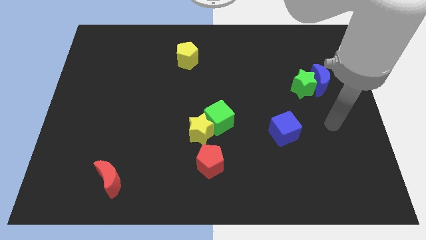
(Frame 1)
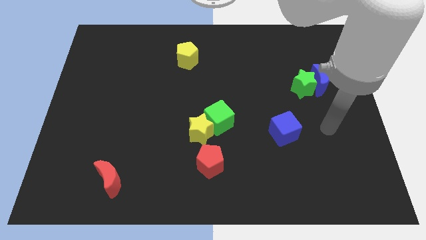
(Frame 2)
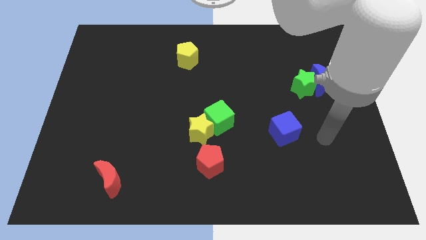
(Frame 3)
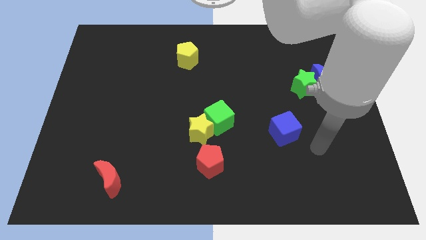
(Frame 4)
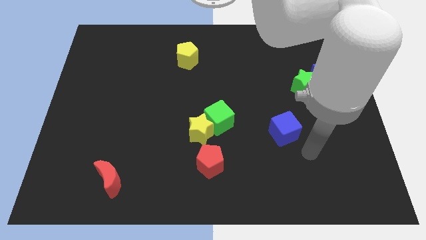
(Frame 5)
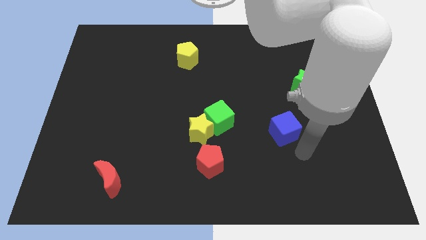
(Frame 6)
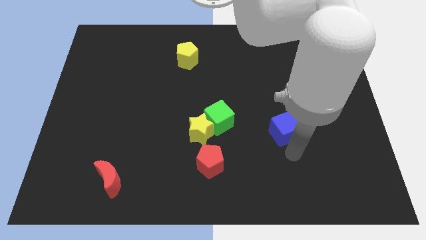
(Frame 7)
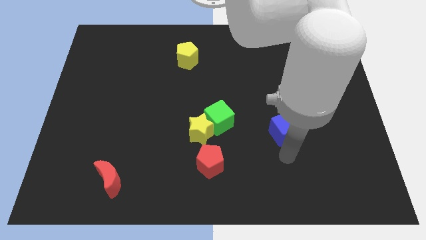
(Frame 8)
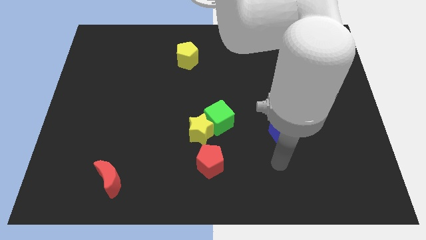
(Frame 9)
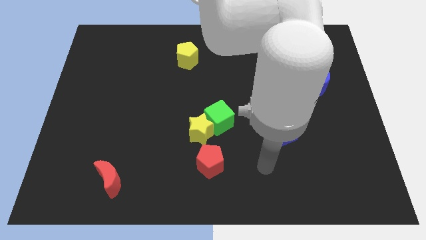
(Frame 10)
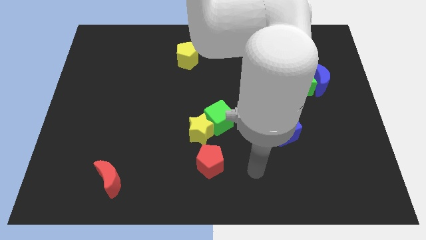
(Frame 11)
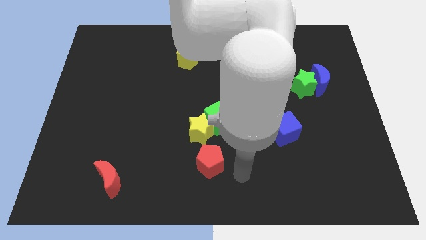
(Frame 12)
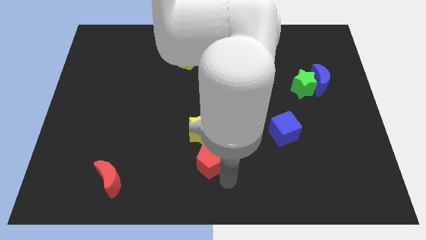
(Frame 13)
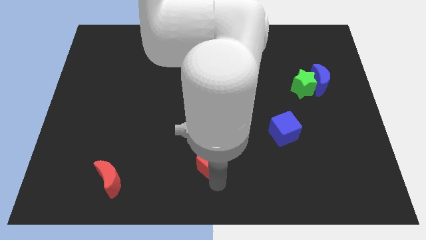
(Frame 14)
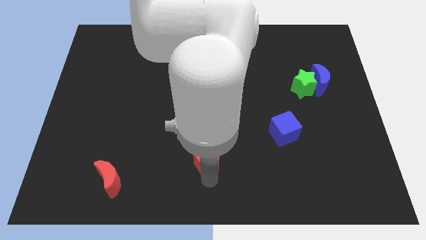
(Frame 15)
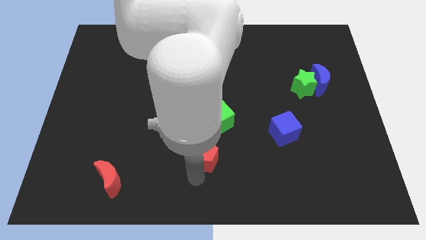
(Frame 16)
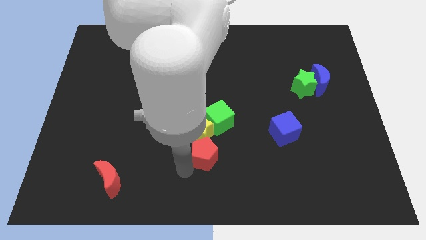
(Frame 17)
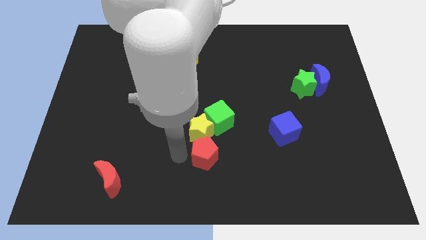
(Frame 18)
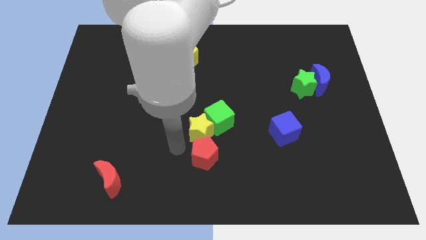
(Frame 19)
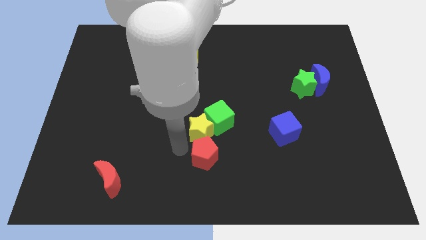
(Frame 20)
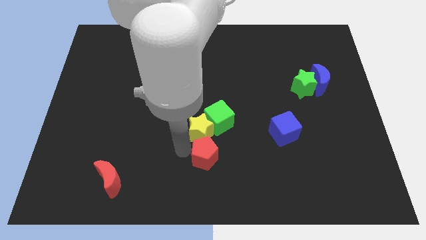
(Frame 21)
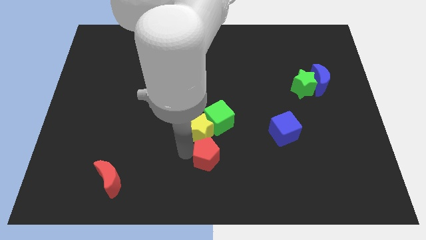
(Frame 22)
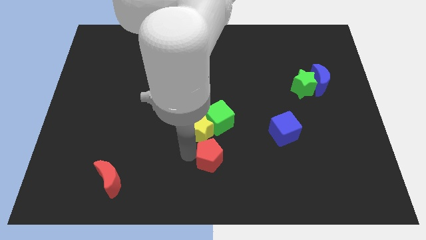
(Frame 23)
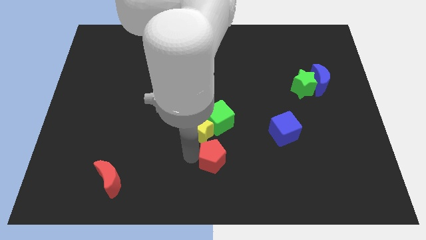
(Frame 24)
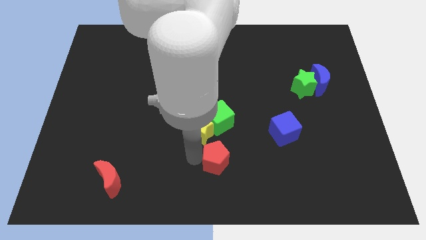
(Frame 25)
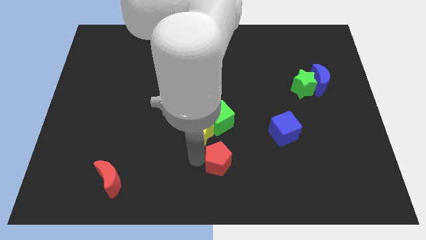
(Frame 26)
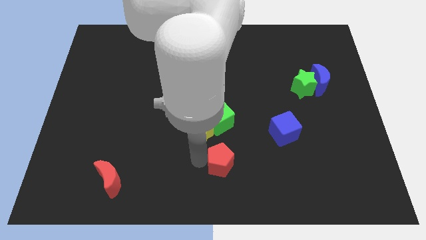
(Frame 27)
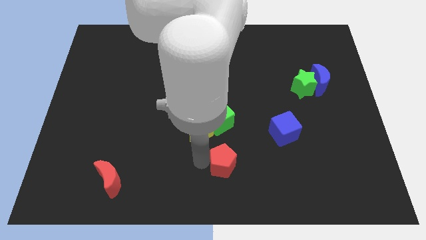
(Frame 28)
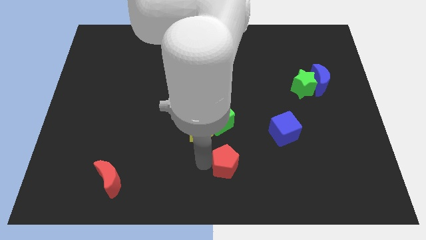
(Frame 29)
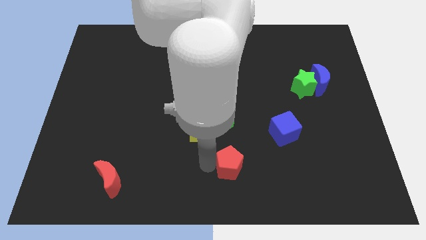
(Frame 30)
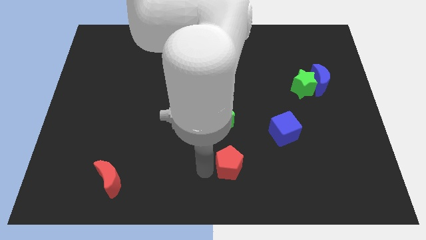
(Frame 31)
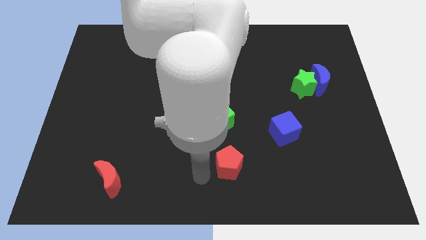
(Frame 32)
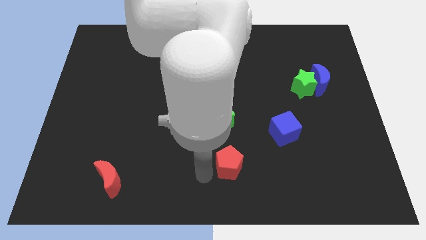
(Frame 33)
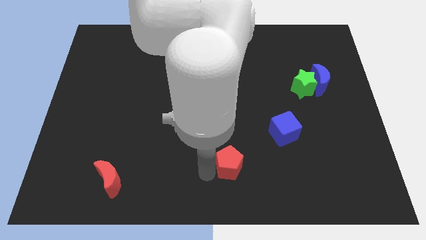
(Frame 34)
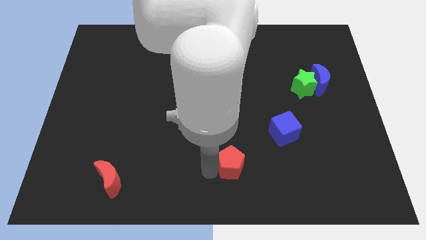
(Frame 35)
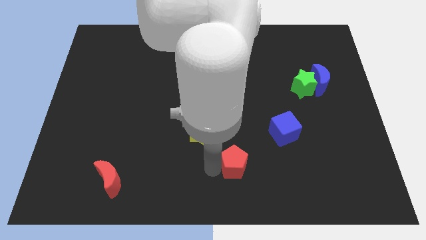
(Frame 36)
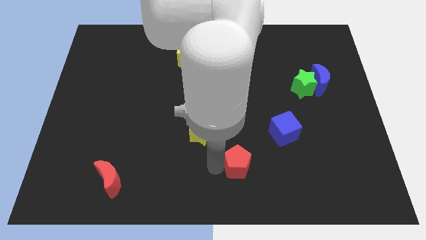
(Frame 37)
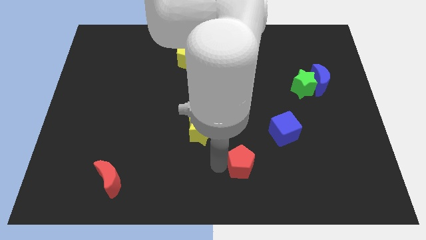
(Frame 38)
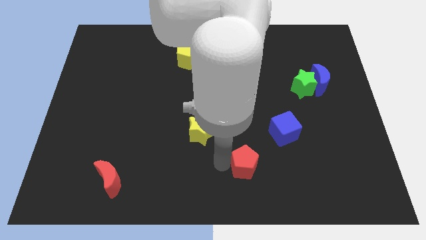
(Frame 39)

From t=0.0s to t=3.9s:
slide the red pentagon a little bit right

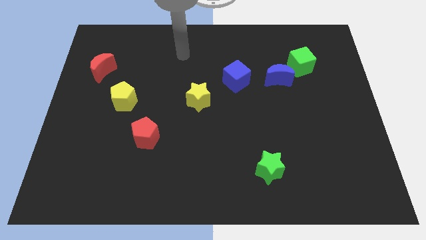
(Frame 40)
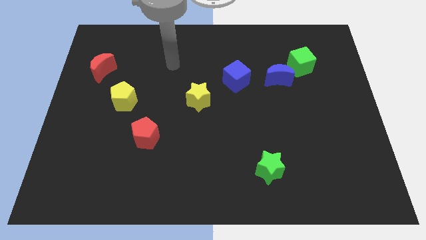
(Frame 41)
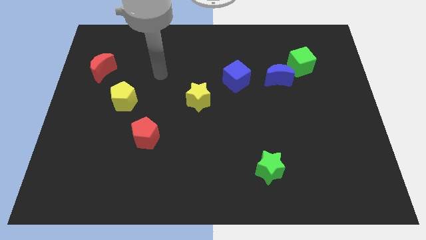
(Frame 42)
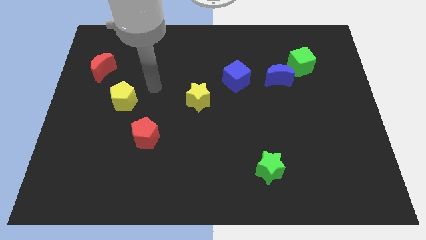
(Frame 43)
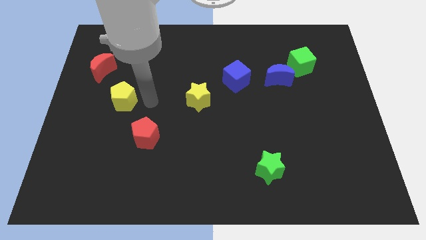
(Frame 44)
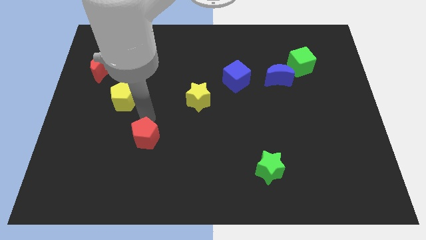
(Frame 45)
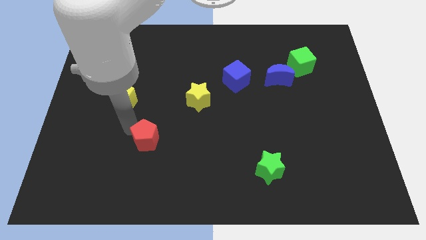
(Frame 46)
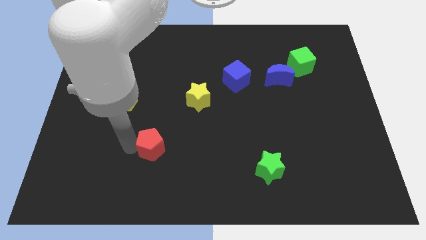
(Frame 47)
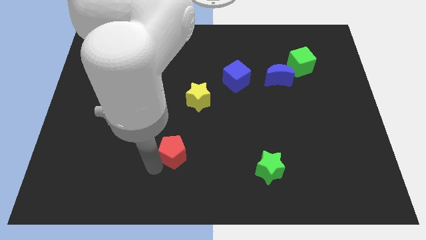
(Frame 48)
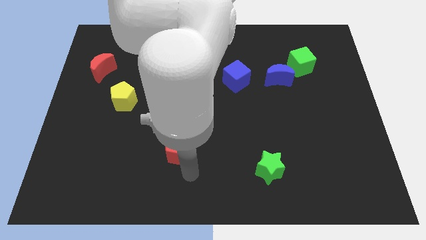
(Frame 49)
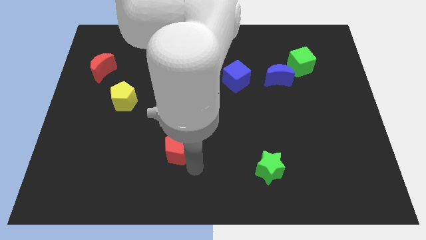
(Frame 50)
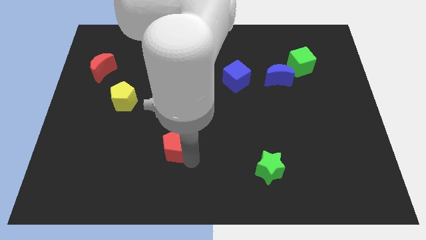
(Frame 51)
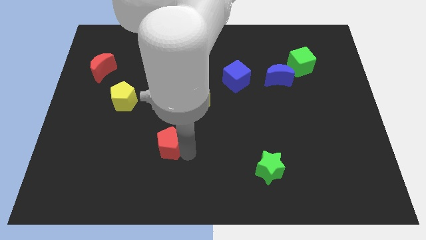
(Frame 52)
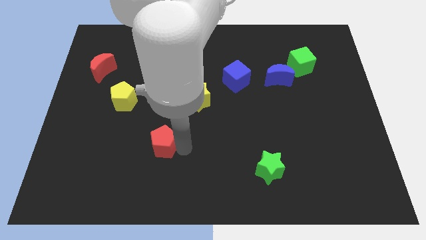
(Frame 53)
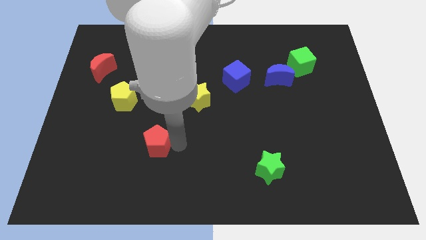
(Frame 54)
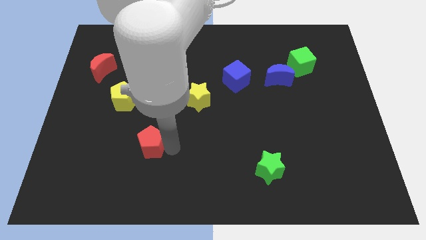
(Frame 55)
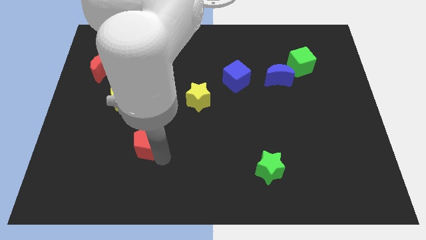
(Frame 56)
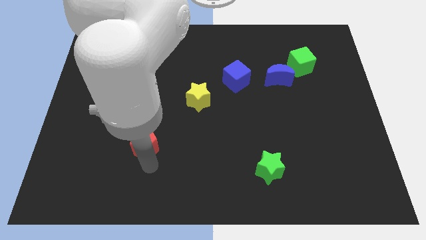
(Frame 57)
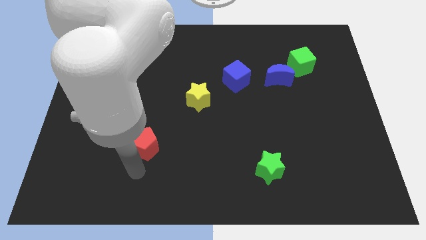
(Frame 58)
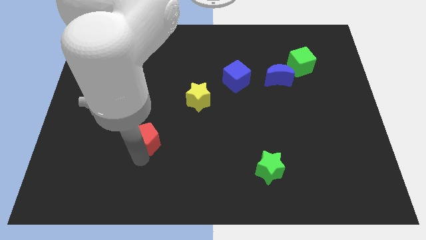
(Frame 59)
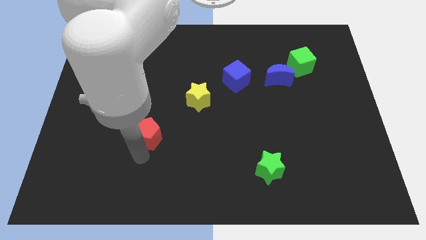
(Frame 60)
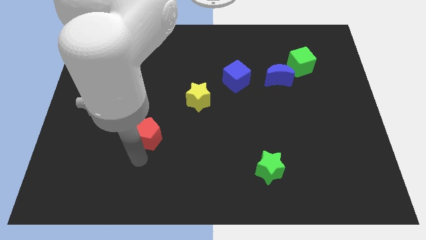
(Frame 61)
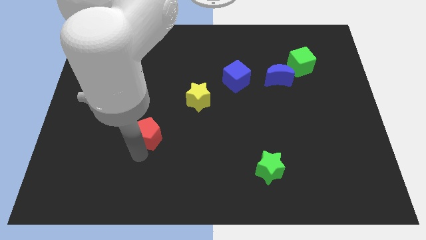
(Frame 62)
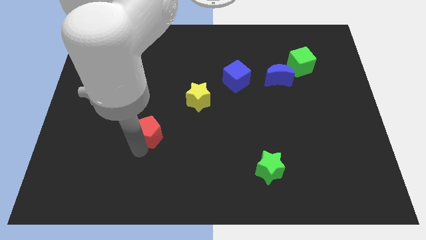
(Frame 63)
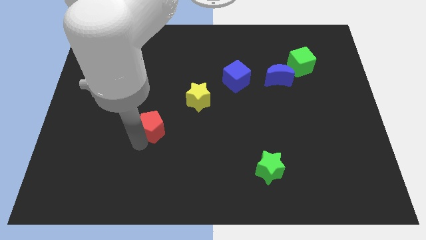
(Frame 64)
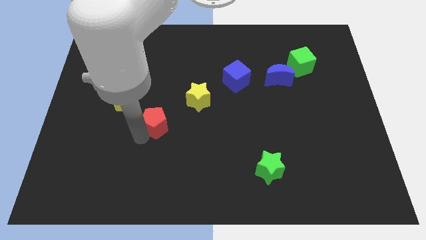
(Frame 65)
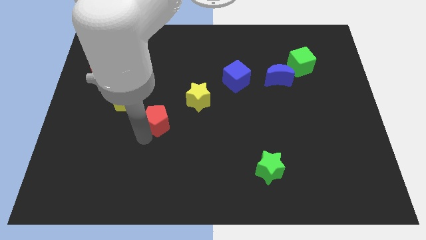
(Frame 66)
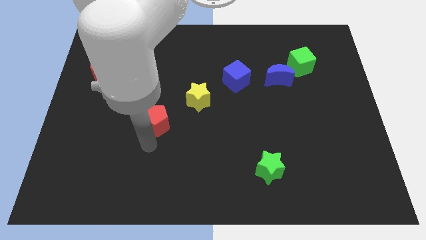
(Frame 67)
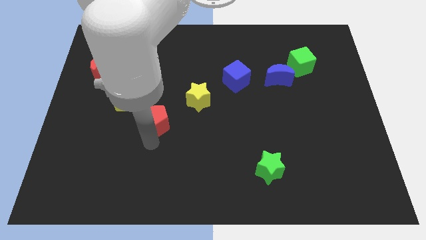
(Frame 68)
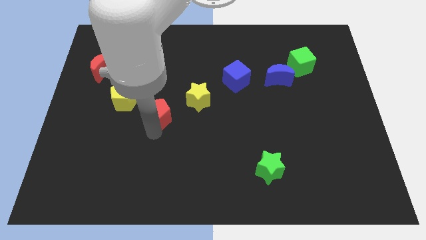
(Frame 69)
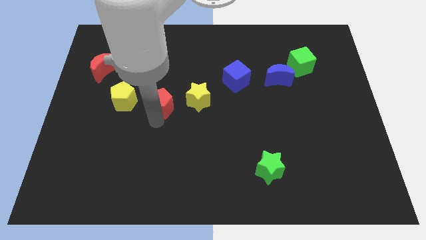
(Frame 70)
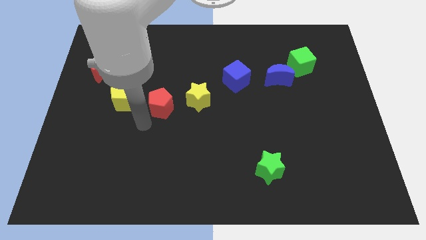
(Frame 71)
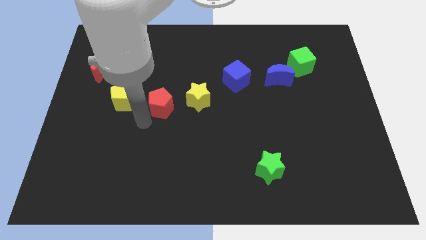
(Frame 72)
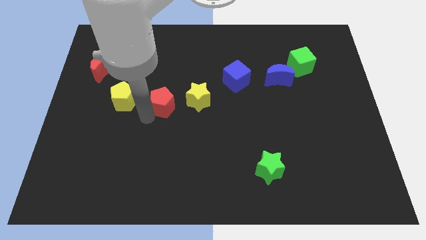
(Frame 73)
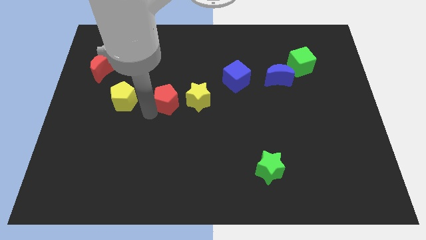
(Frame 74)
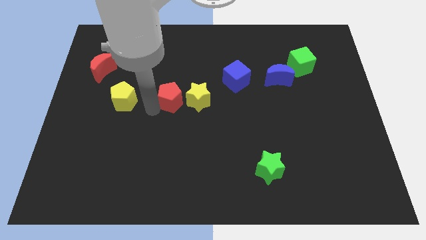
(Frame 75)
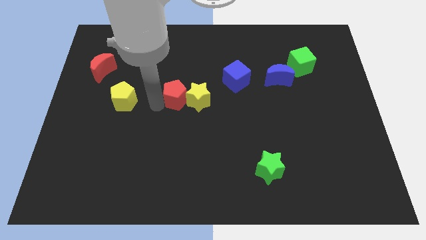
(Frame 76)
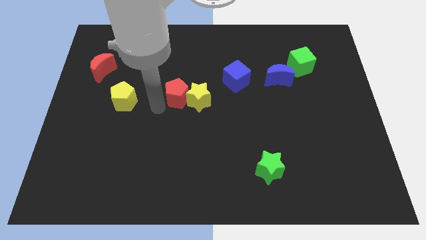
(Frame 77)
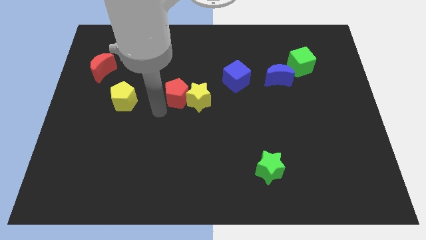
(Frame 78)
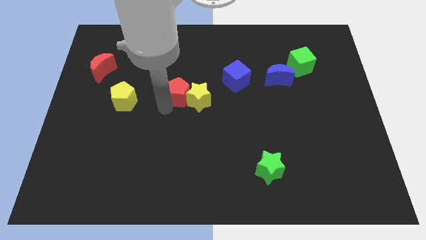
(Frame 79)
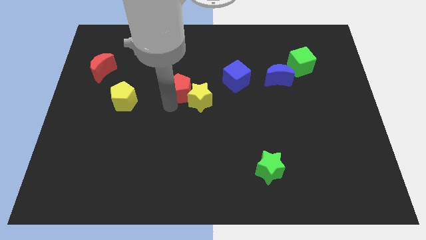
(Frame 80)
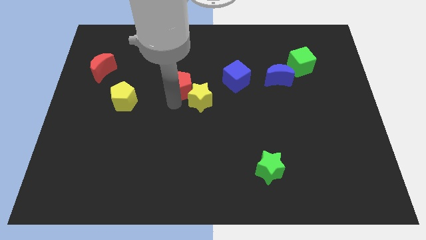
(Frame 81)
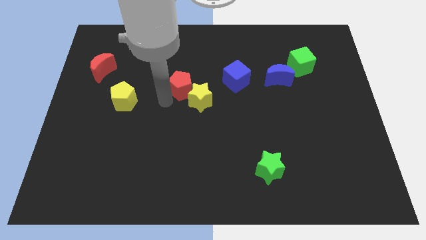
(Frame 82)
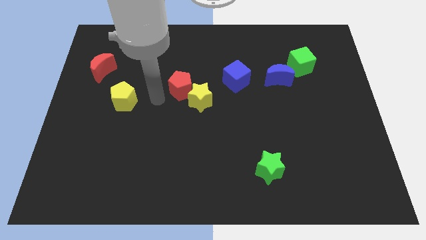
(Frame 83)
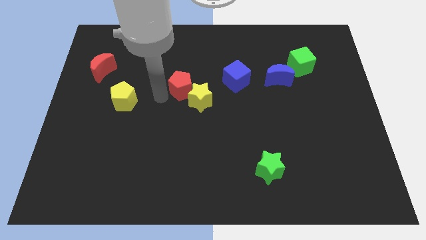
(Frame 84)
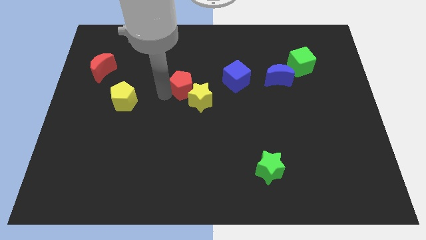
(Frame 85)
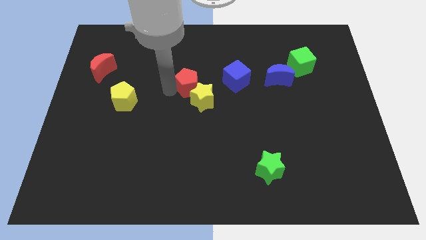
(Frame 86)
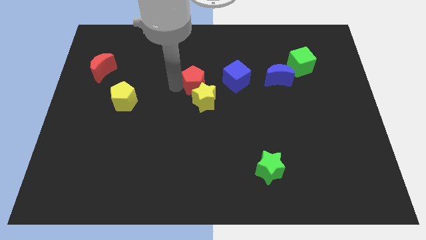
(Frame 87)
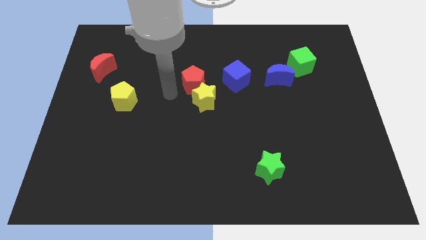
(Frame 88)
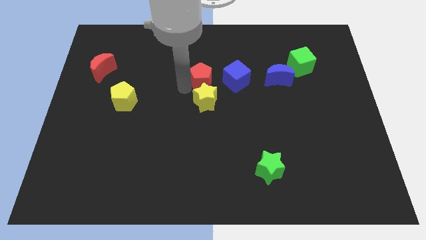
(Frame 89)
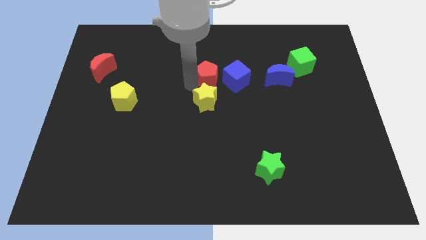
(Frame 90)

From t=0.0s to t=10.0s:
slide the red pentagon diagonally up and right
